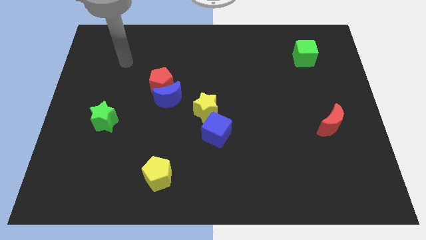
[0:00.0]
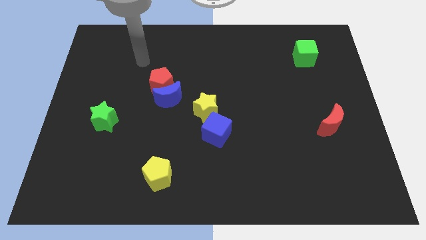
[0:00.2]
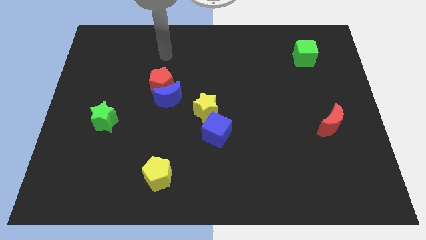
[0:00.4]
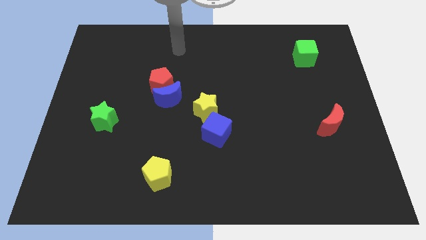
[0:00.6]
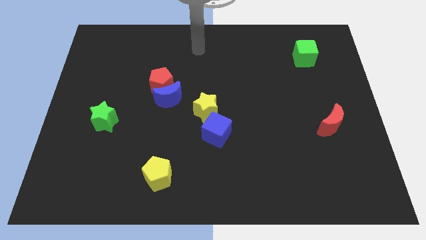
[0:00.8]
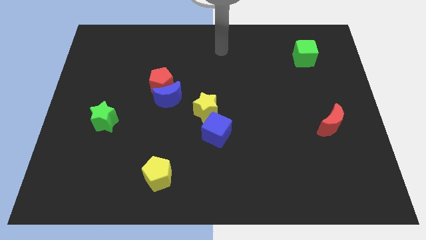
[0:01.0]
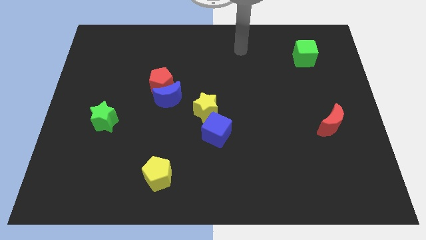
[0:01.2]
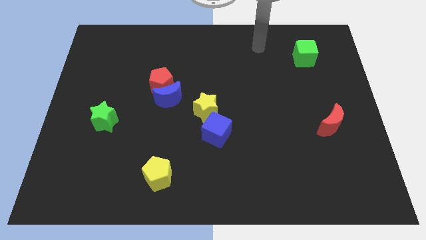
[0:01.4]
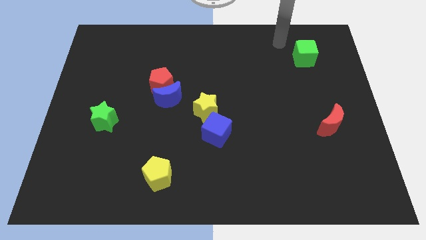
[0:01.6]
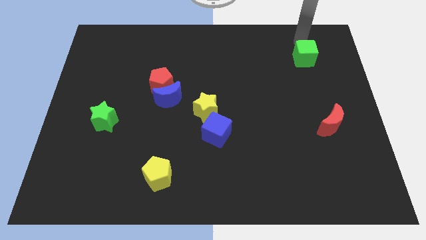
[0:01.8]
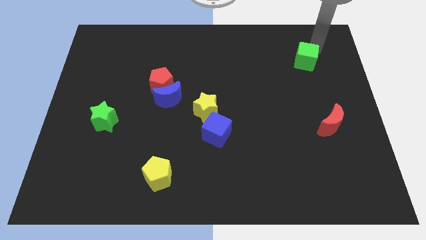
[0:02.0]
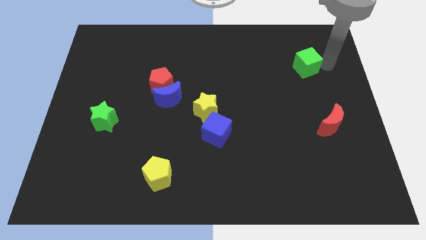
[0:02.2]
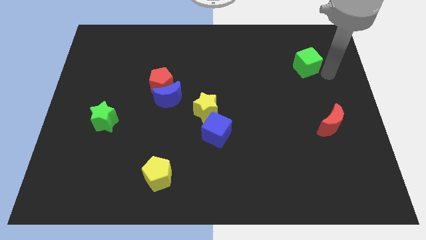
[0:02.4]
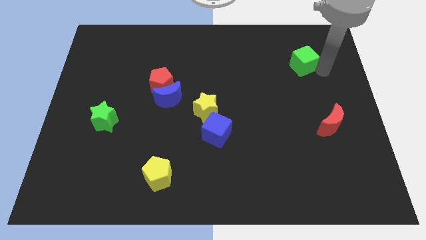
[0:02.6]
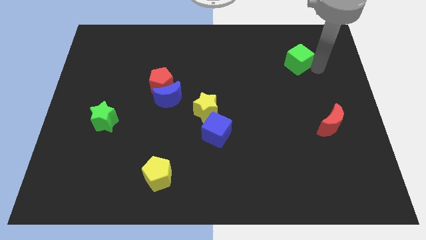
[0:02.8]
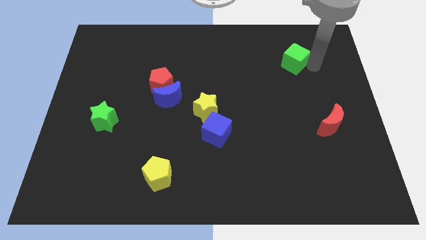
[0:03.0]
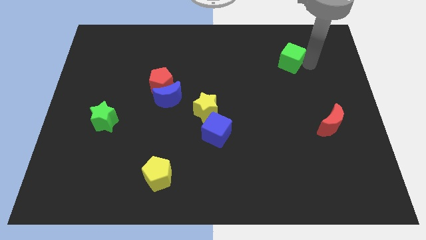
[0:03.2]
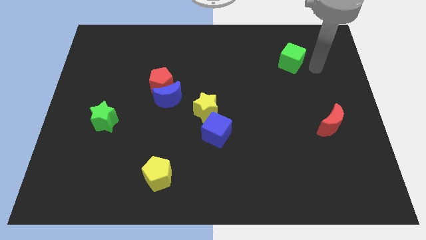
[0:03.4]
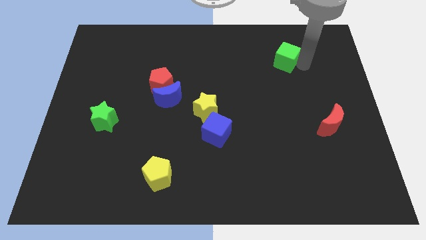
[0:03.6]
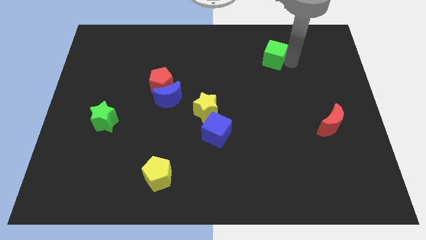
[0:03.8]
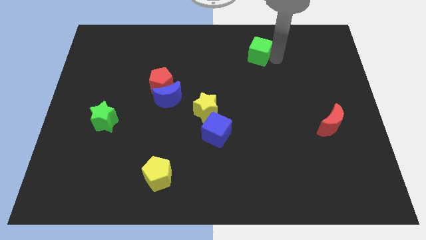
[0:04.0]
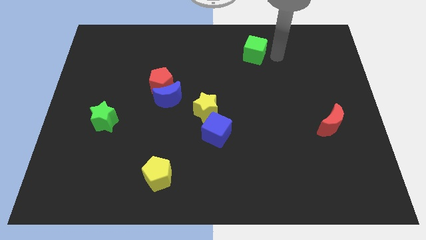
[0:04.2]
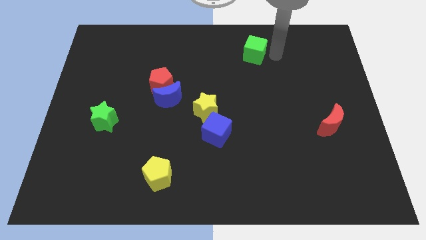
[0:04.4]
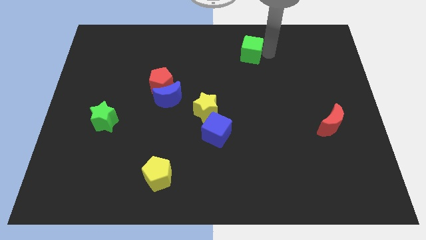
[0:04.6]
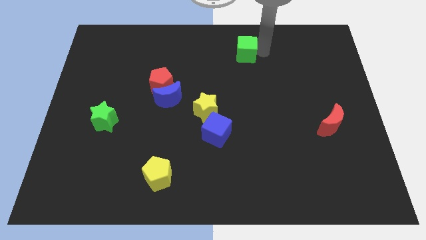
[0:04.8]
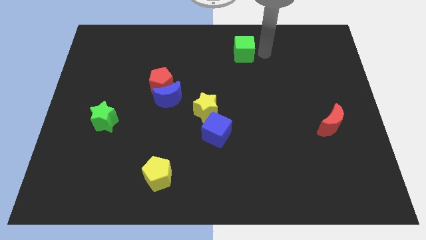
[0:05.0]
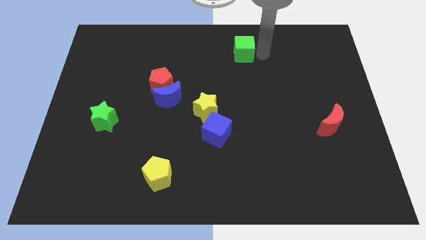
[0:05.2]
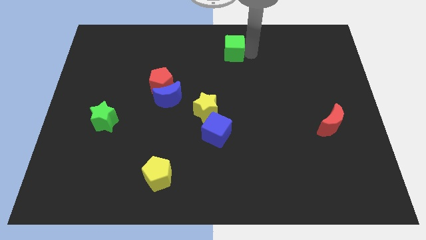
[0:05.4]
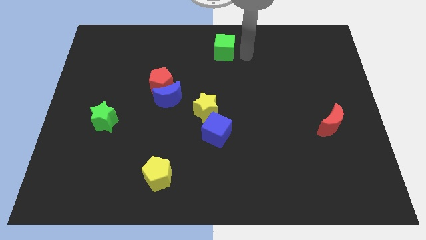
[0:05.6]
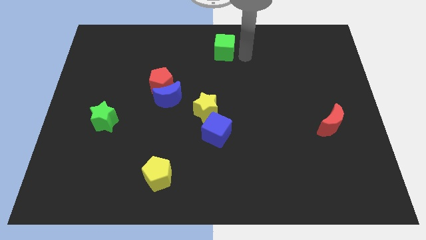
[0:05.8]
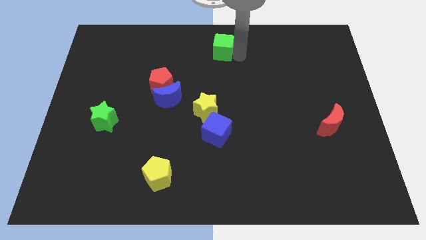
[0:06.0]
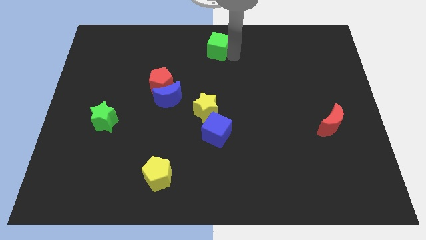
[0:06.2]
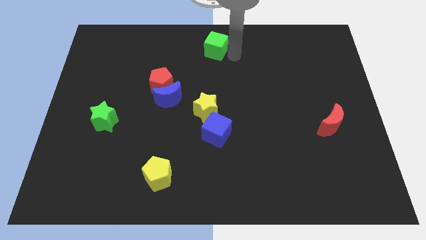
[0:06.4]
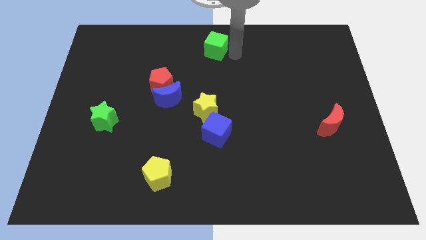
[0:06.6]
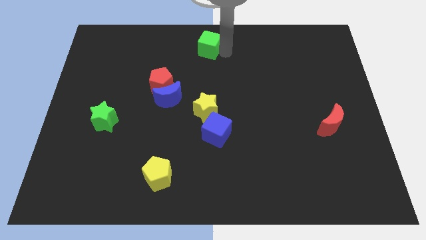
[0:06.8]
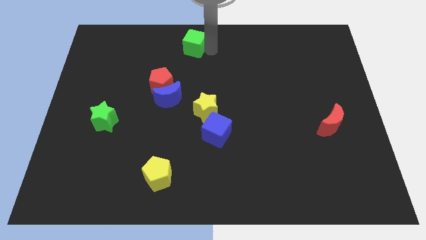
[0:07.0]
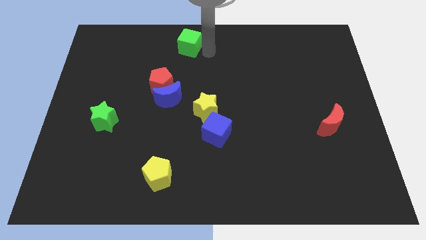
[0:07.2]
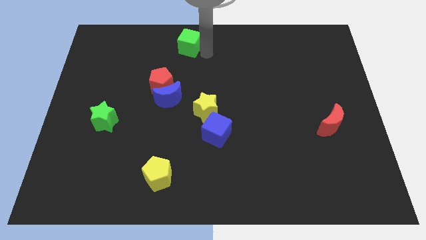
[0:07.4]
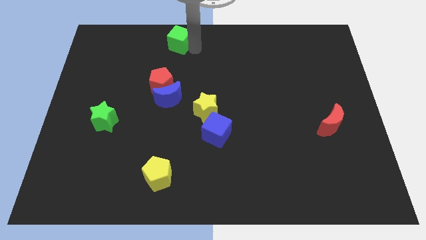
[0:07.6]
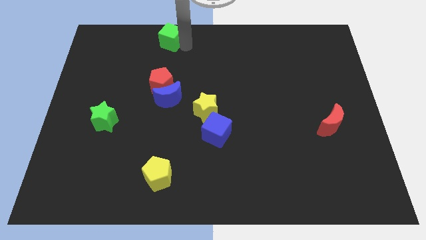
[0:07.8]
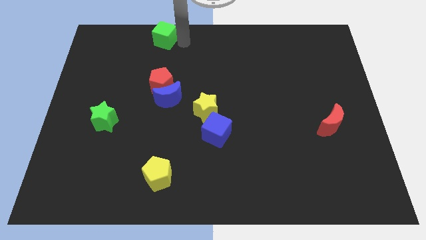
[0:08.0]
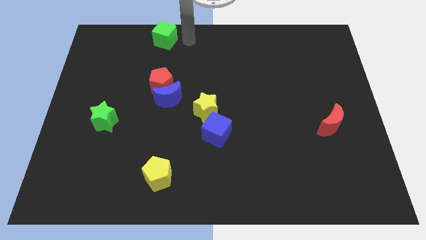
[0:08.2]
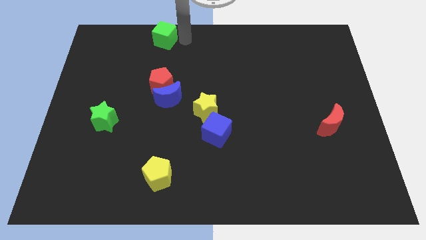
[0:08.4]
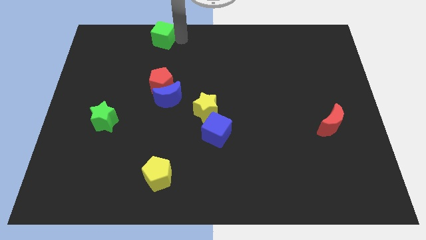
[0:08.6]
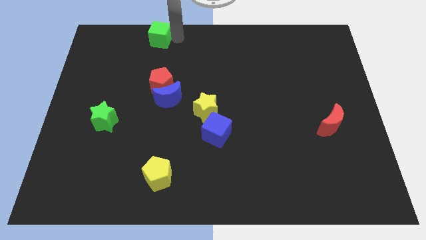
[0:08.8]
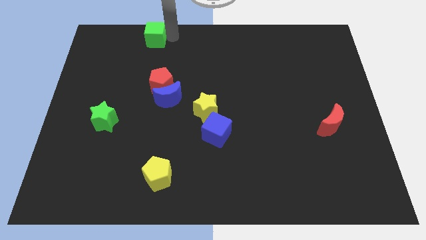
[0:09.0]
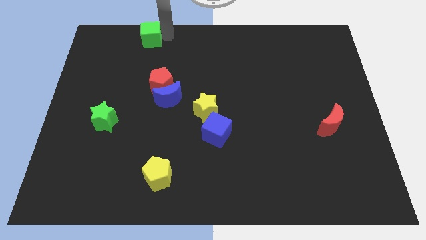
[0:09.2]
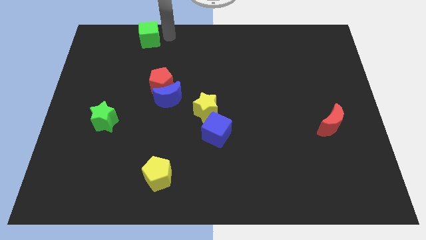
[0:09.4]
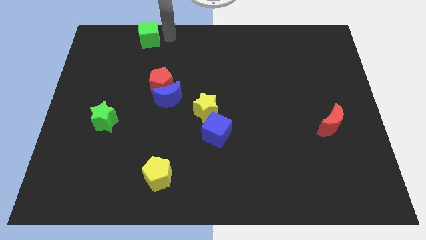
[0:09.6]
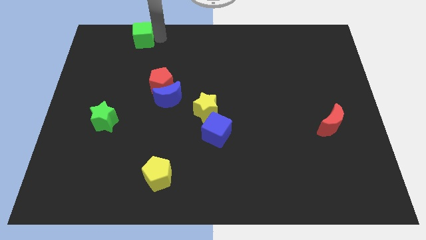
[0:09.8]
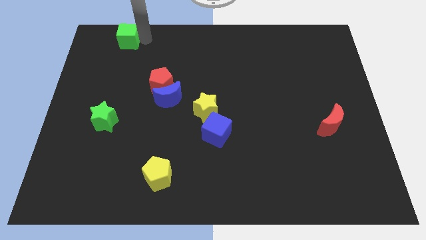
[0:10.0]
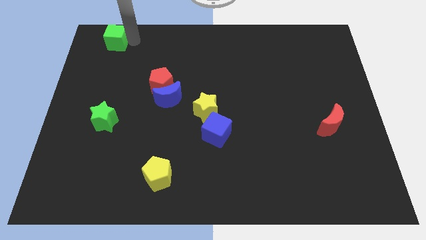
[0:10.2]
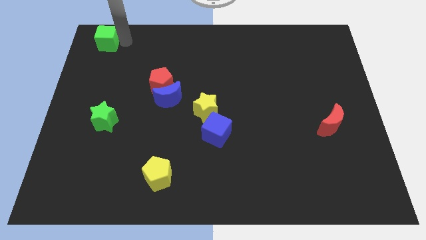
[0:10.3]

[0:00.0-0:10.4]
push the green cube to the upper left corner
